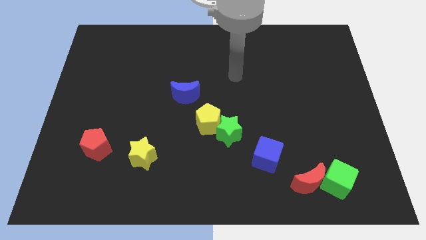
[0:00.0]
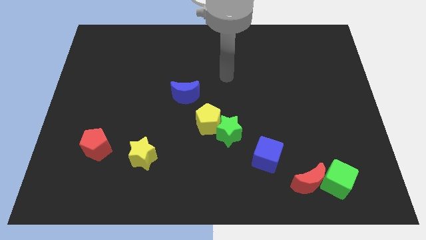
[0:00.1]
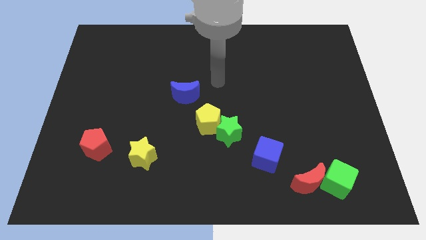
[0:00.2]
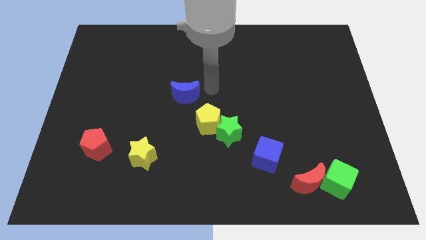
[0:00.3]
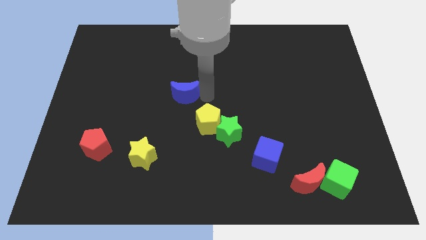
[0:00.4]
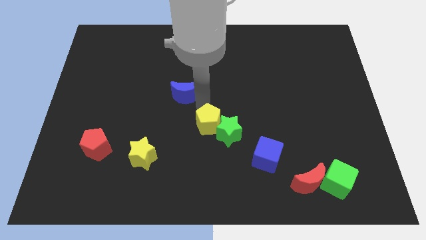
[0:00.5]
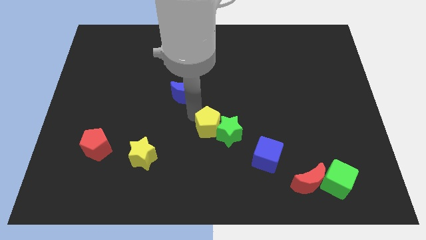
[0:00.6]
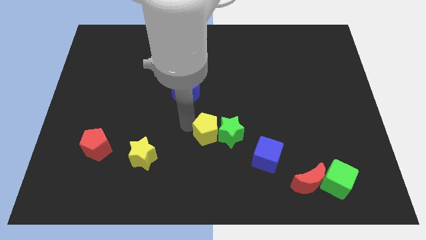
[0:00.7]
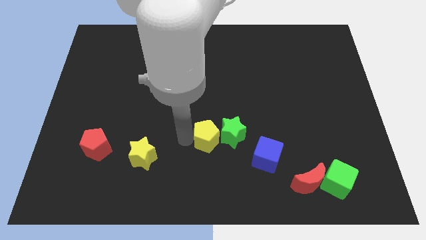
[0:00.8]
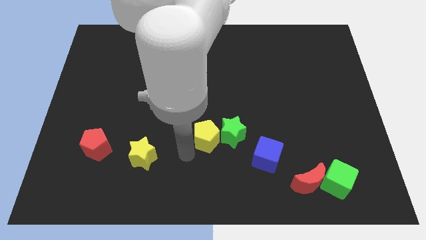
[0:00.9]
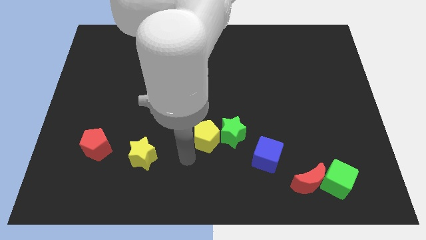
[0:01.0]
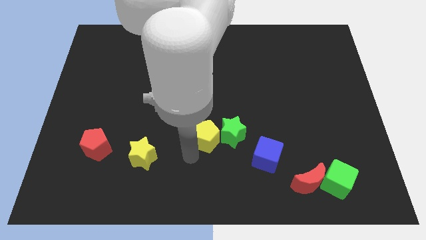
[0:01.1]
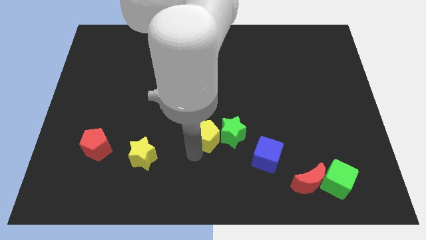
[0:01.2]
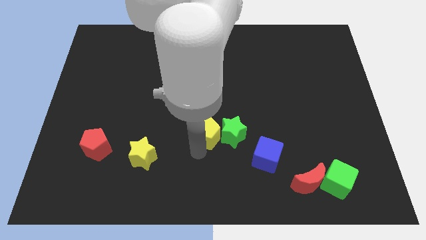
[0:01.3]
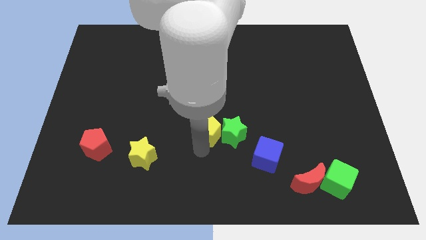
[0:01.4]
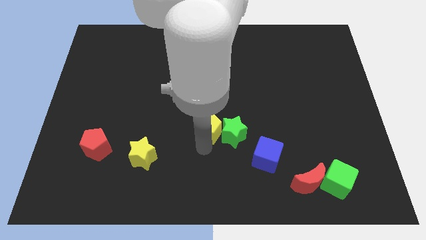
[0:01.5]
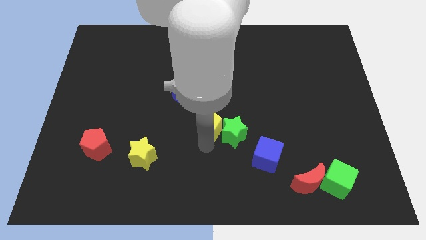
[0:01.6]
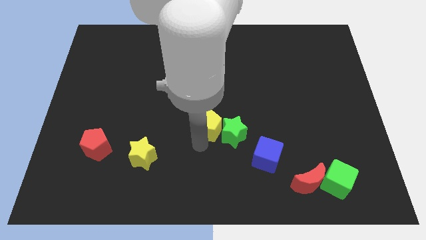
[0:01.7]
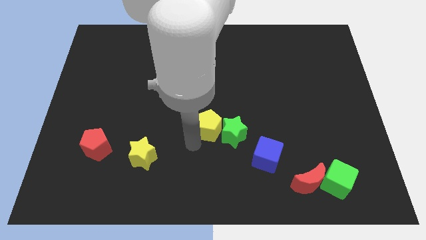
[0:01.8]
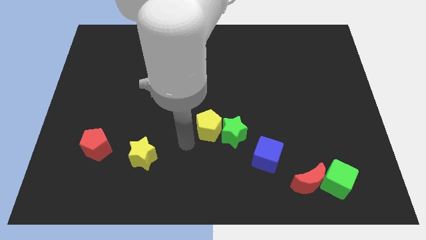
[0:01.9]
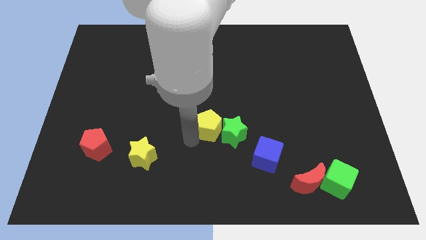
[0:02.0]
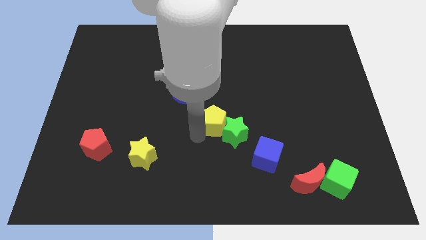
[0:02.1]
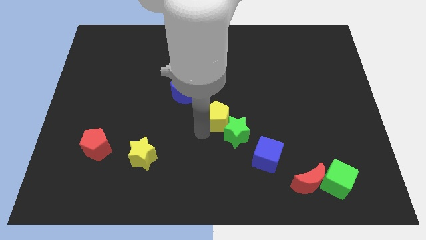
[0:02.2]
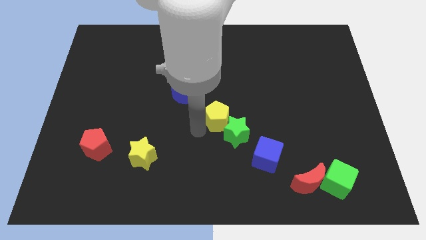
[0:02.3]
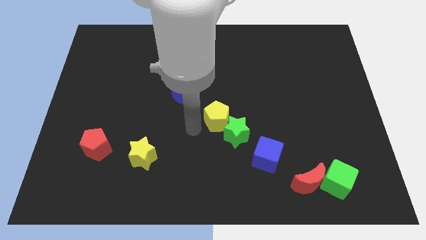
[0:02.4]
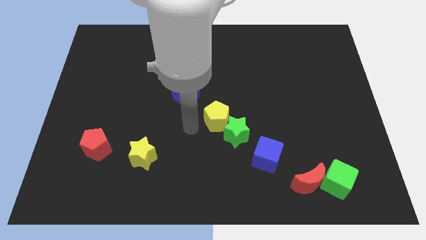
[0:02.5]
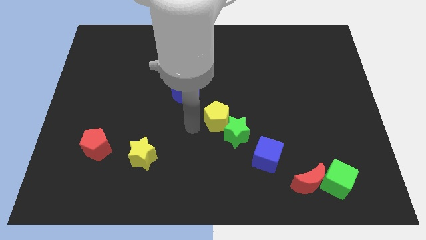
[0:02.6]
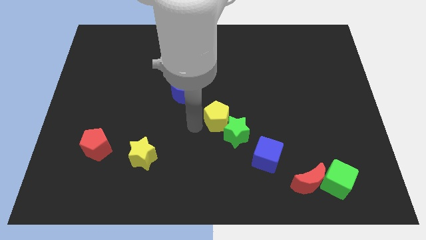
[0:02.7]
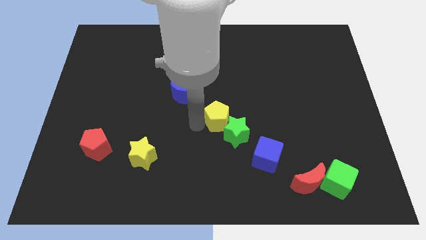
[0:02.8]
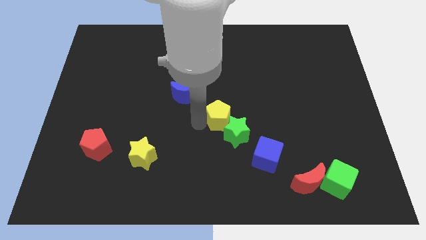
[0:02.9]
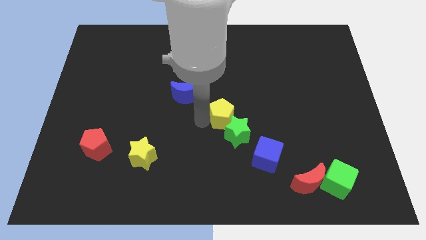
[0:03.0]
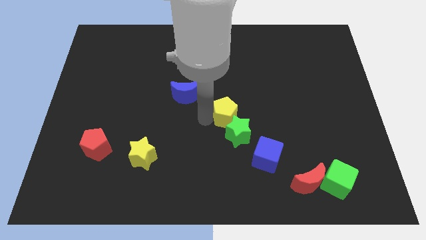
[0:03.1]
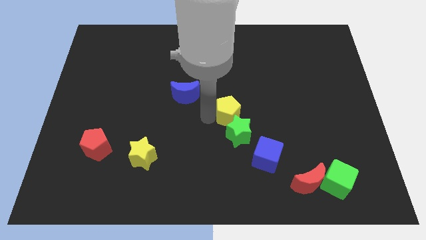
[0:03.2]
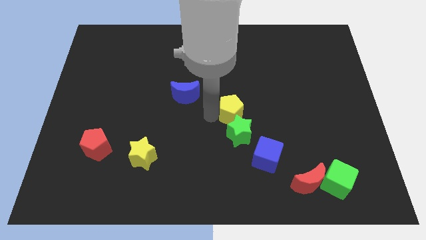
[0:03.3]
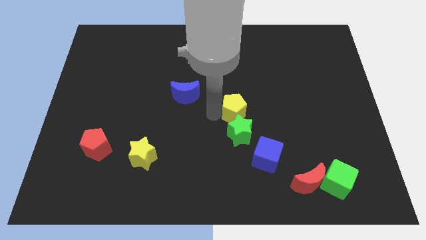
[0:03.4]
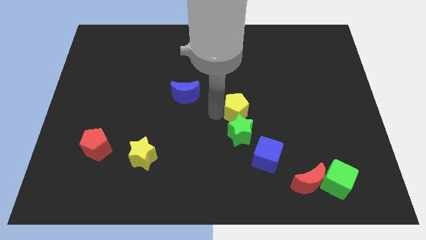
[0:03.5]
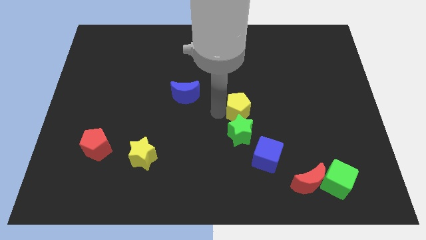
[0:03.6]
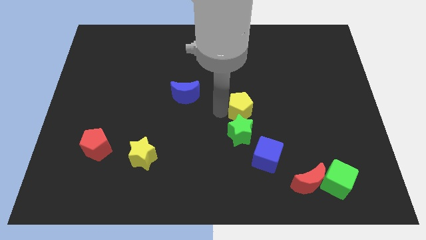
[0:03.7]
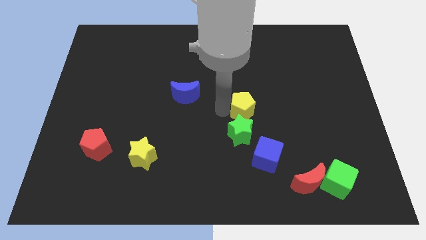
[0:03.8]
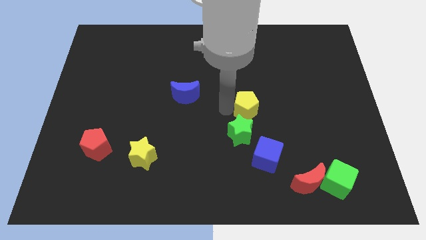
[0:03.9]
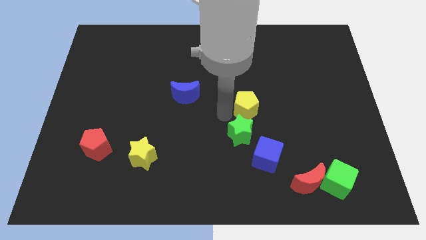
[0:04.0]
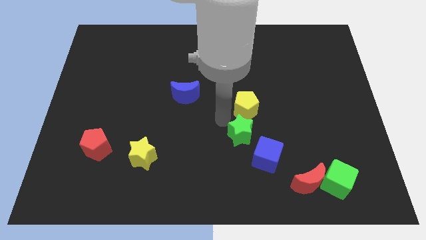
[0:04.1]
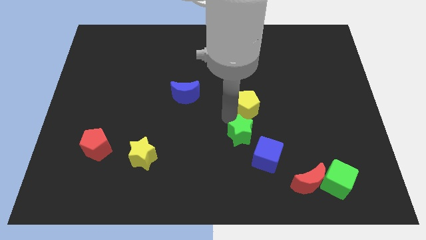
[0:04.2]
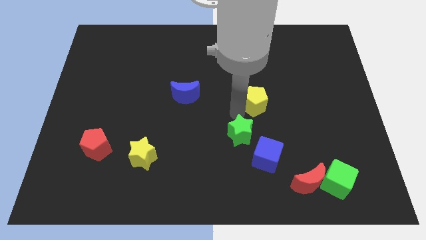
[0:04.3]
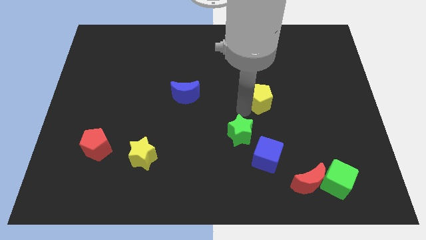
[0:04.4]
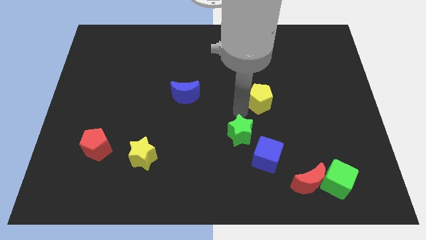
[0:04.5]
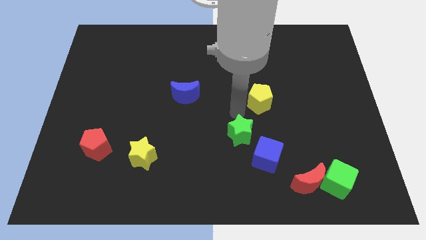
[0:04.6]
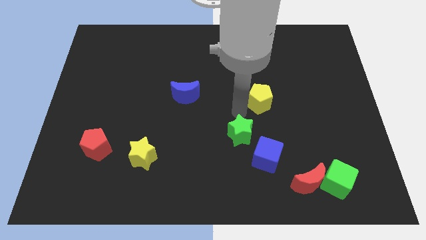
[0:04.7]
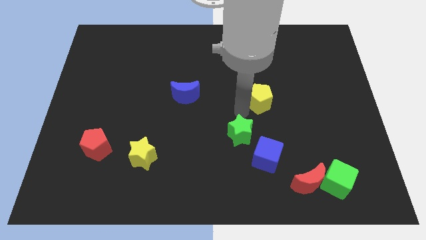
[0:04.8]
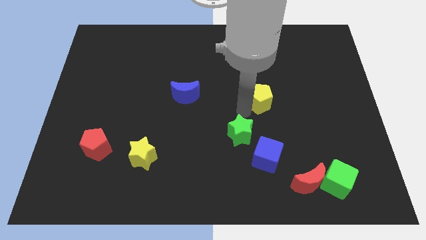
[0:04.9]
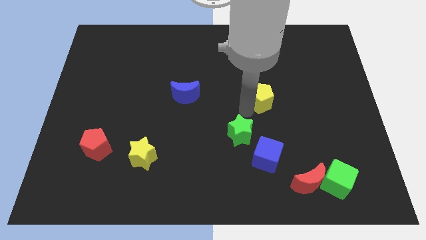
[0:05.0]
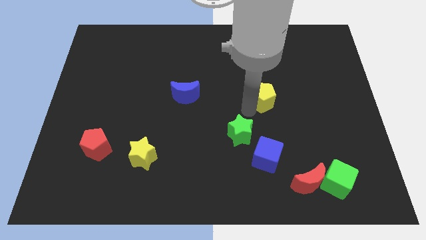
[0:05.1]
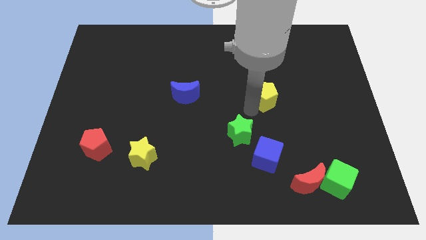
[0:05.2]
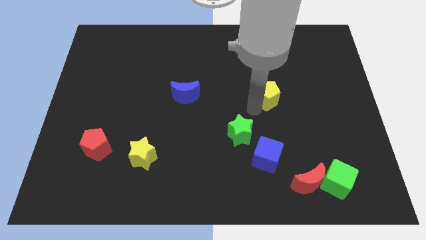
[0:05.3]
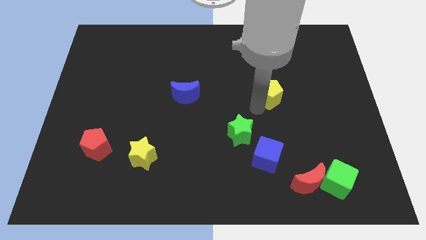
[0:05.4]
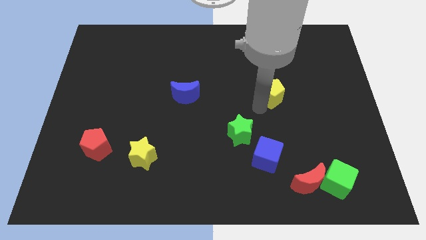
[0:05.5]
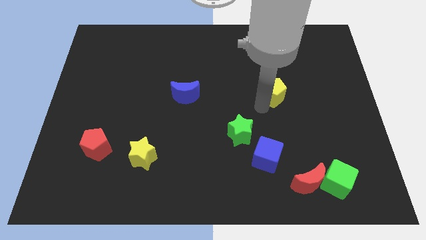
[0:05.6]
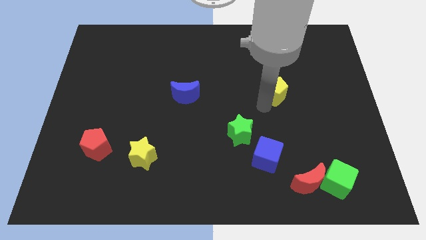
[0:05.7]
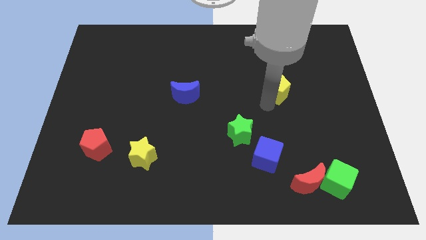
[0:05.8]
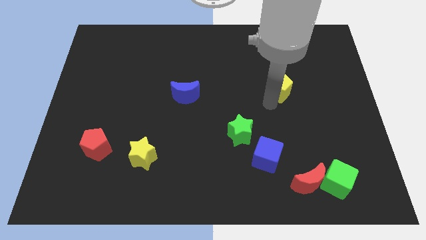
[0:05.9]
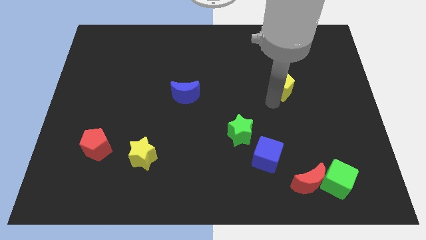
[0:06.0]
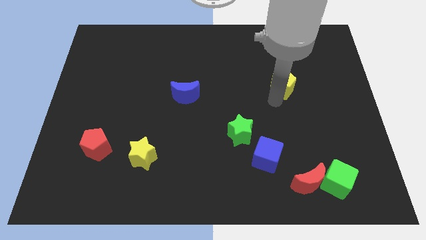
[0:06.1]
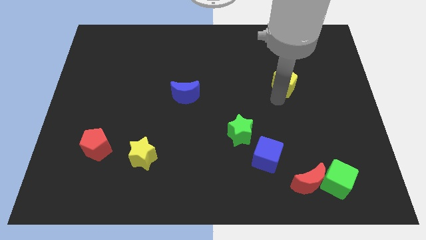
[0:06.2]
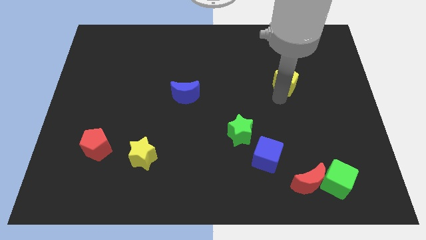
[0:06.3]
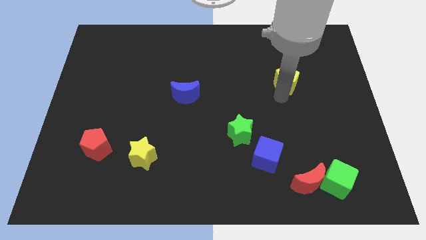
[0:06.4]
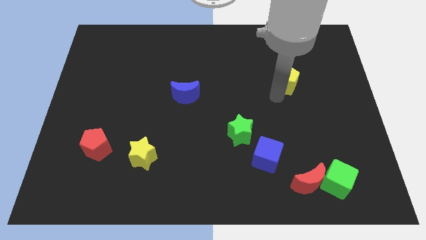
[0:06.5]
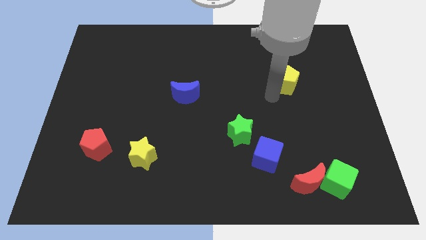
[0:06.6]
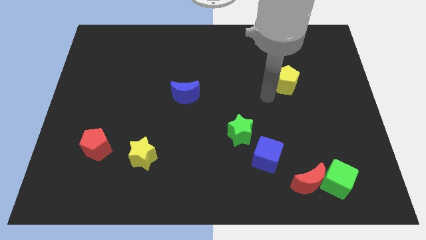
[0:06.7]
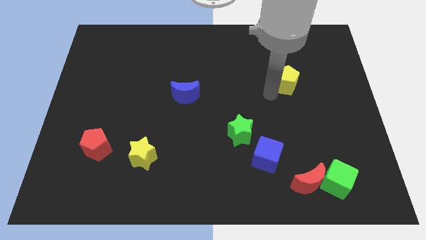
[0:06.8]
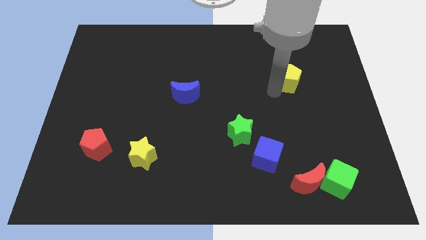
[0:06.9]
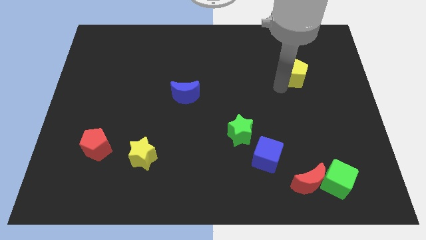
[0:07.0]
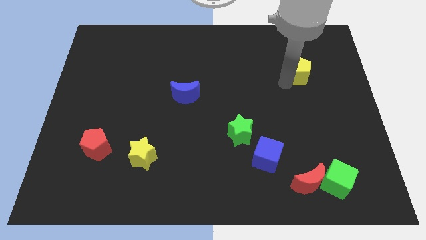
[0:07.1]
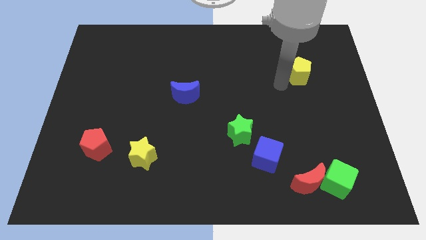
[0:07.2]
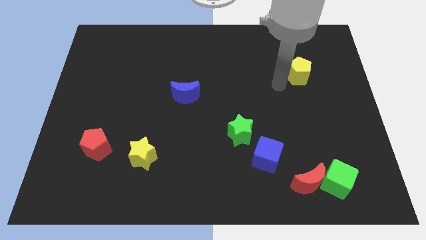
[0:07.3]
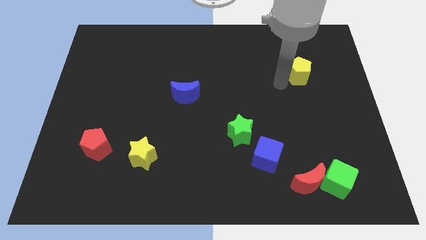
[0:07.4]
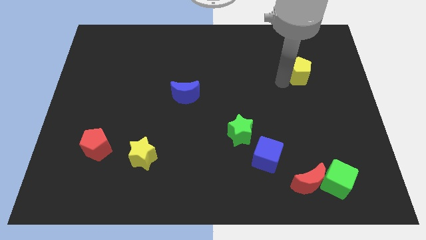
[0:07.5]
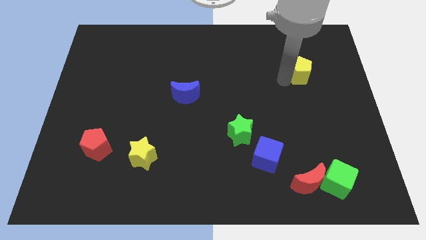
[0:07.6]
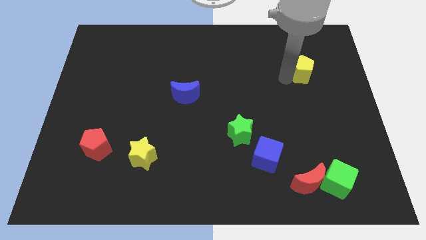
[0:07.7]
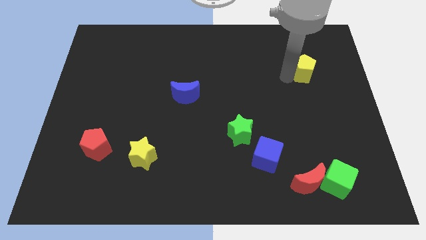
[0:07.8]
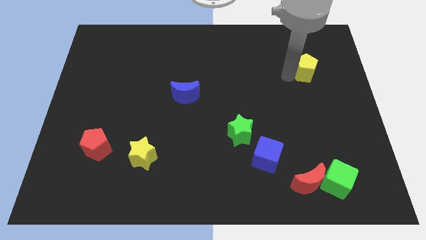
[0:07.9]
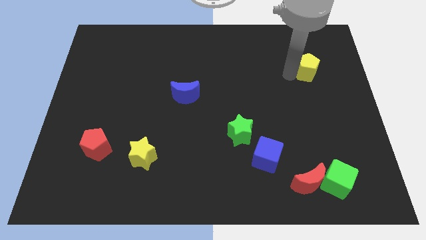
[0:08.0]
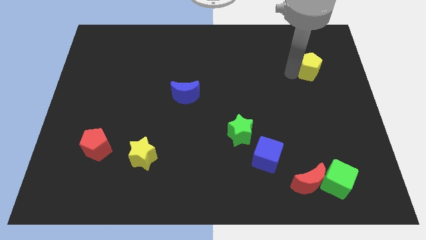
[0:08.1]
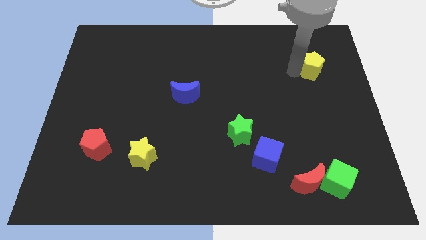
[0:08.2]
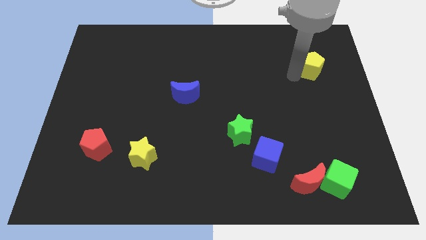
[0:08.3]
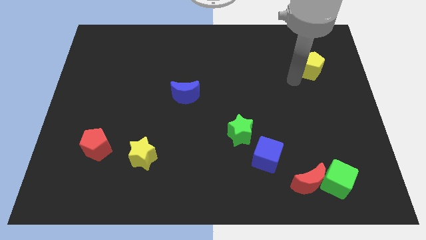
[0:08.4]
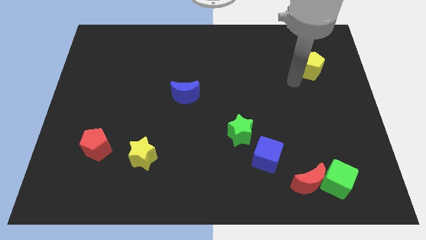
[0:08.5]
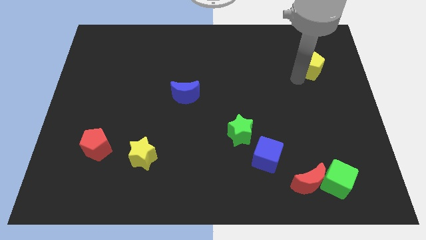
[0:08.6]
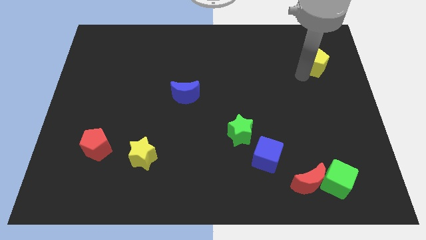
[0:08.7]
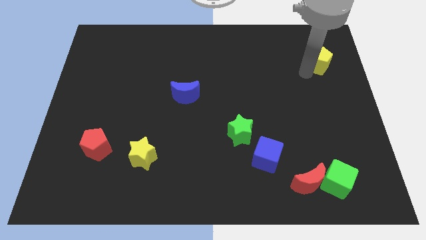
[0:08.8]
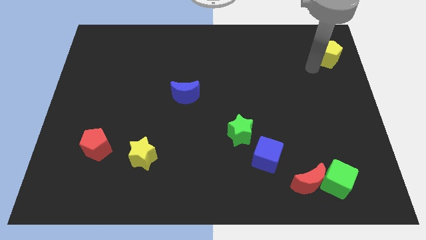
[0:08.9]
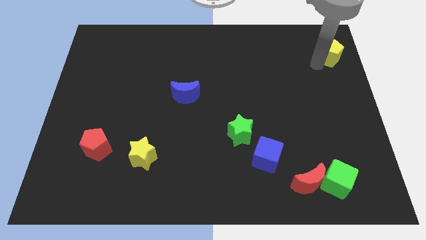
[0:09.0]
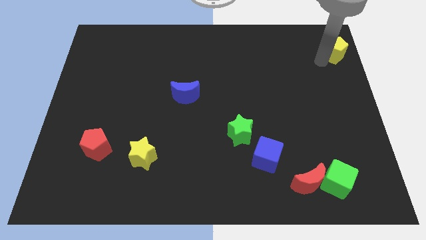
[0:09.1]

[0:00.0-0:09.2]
slide the yellow pentagon to the upper right corner
